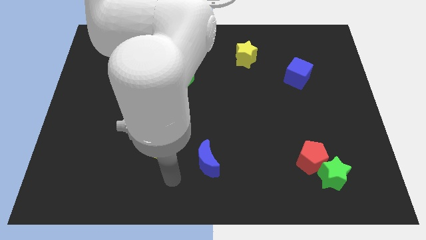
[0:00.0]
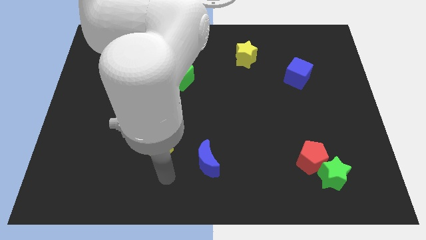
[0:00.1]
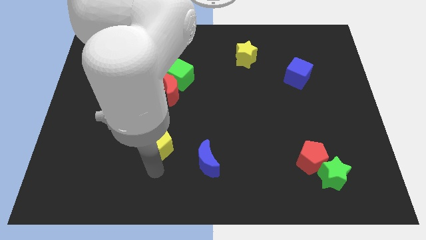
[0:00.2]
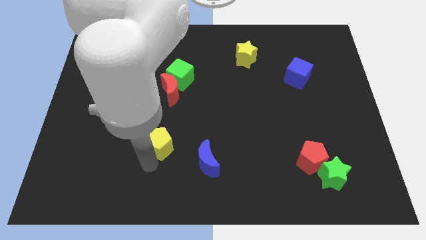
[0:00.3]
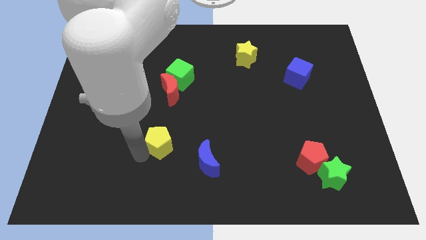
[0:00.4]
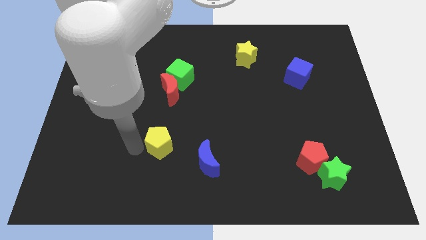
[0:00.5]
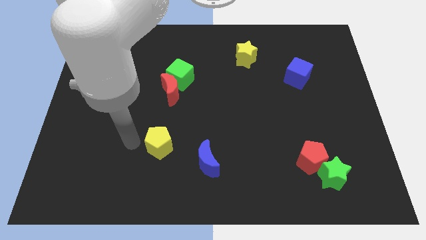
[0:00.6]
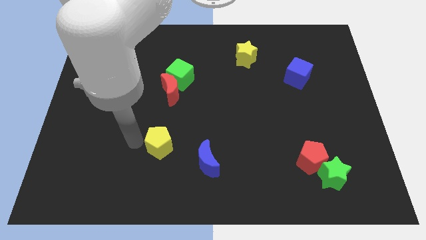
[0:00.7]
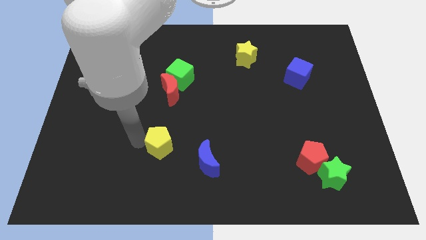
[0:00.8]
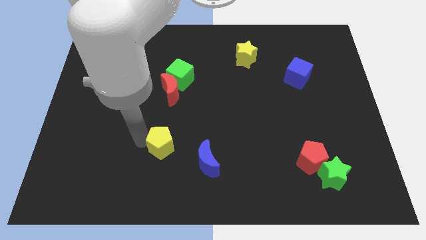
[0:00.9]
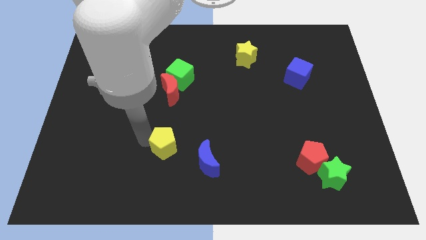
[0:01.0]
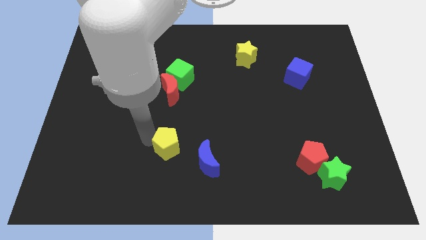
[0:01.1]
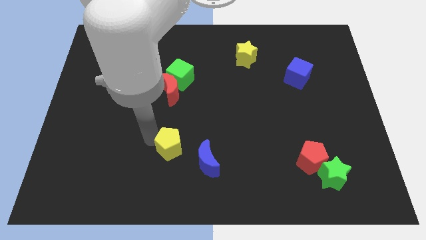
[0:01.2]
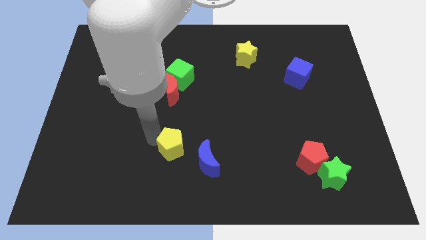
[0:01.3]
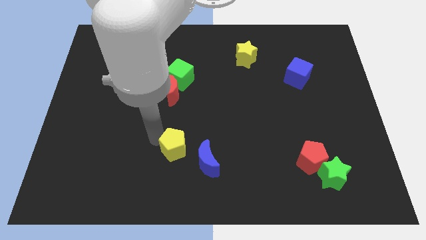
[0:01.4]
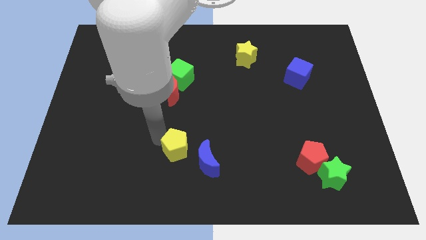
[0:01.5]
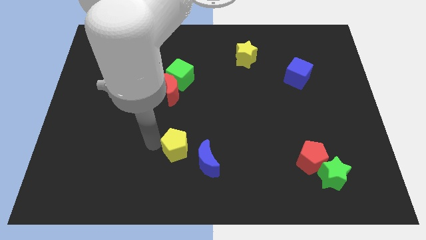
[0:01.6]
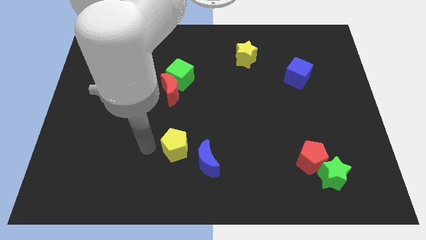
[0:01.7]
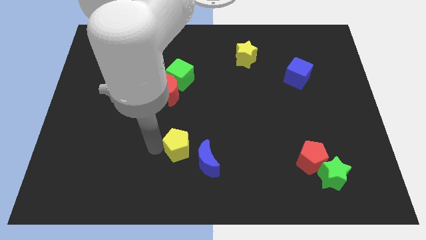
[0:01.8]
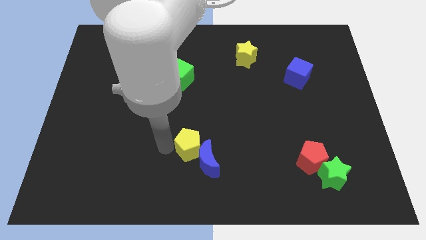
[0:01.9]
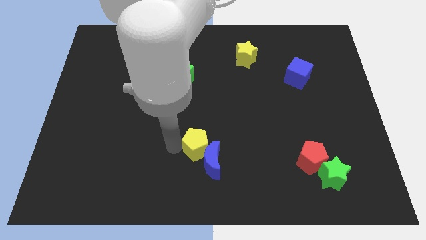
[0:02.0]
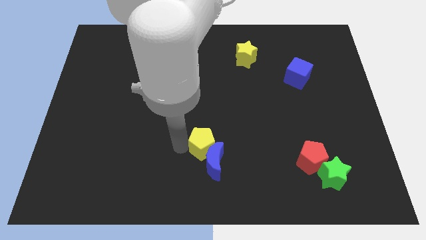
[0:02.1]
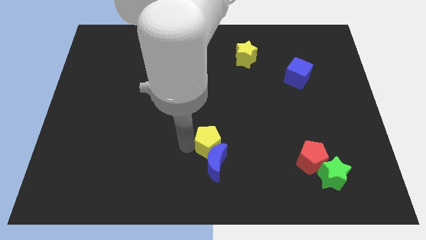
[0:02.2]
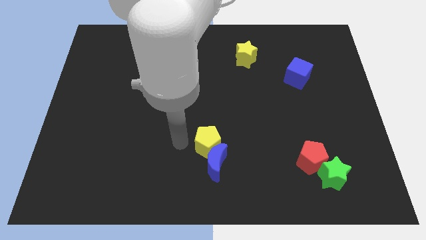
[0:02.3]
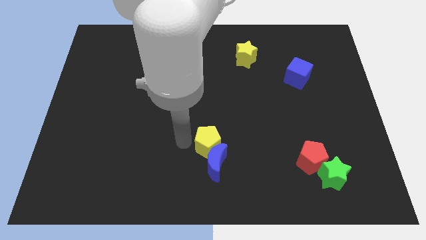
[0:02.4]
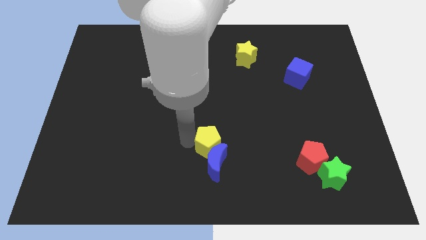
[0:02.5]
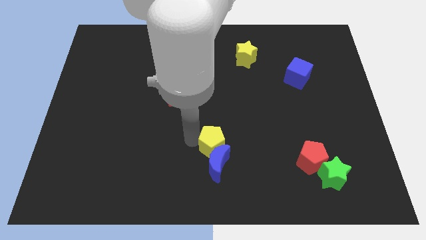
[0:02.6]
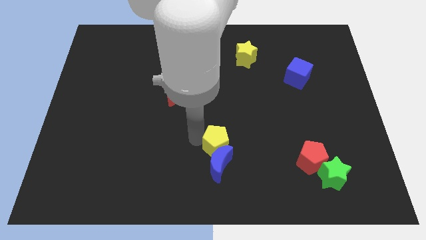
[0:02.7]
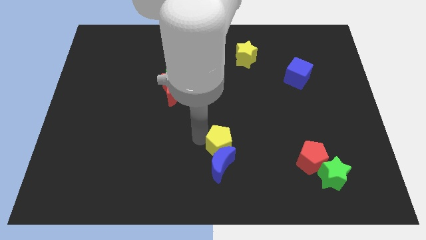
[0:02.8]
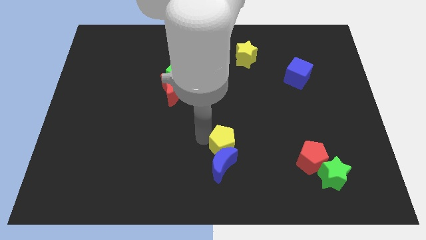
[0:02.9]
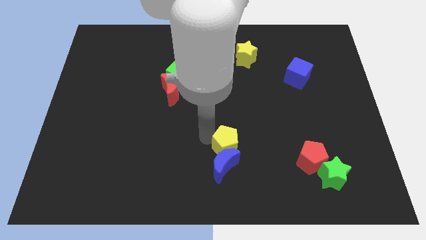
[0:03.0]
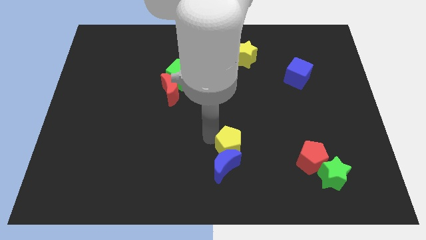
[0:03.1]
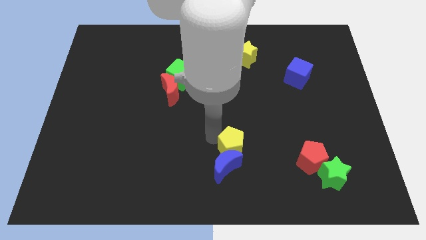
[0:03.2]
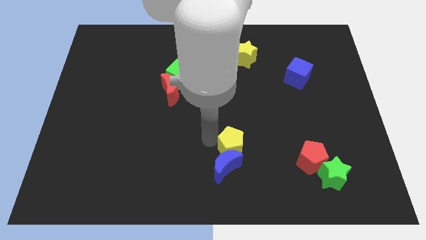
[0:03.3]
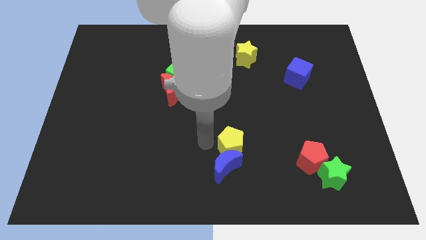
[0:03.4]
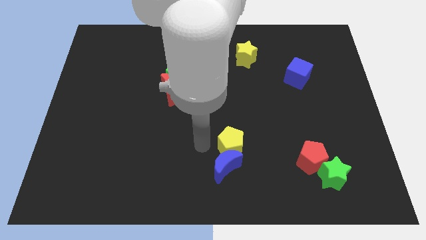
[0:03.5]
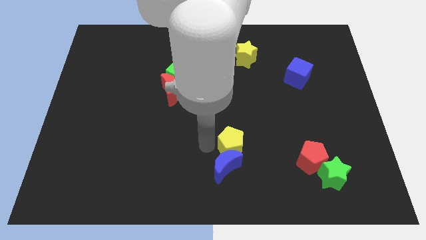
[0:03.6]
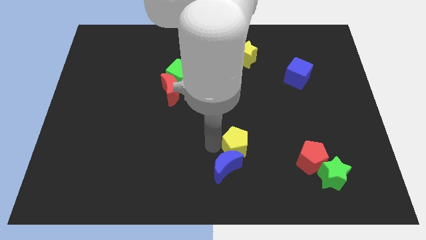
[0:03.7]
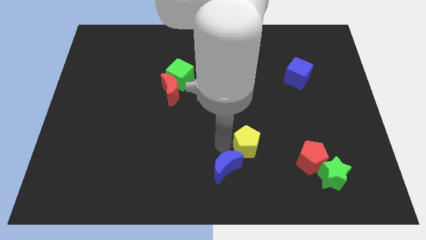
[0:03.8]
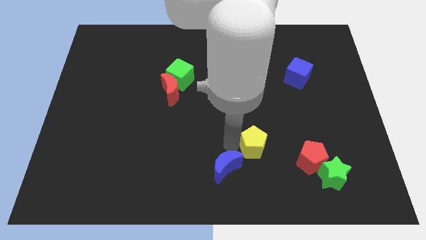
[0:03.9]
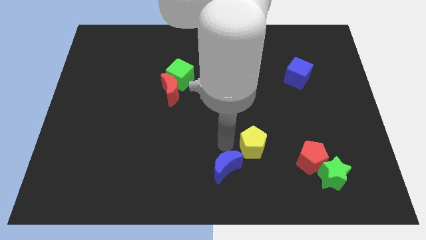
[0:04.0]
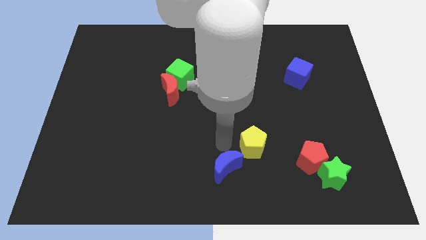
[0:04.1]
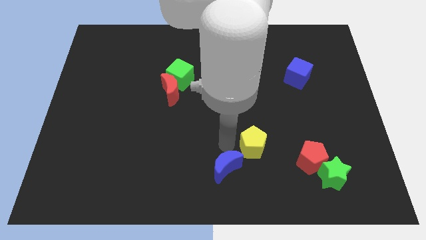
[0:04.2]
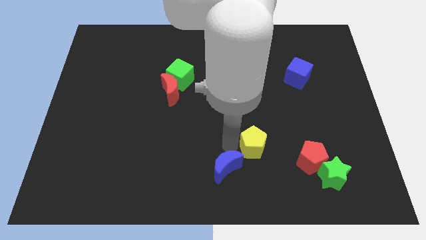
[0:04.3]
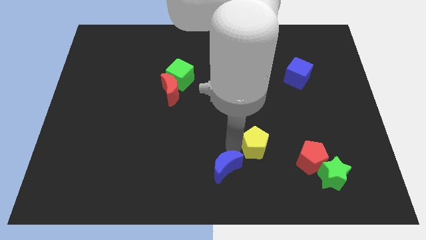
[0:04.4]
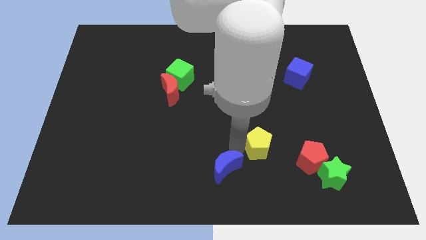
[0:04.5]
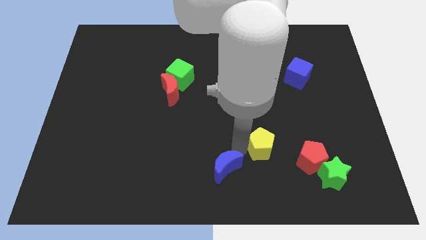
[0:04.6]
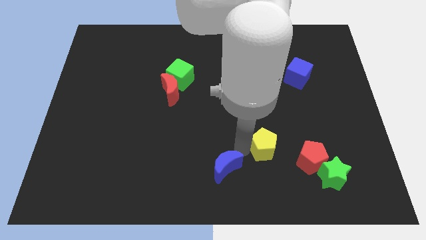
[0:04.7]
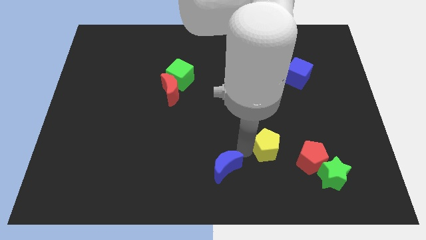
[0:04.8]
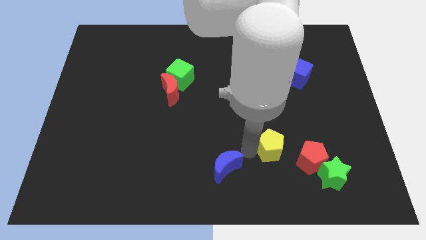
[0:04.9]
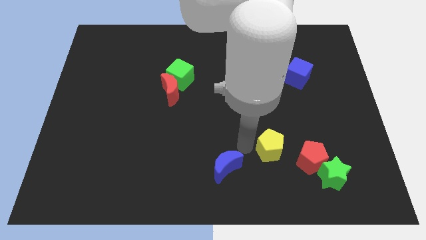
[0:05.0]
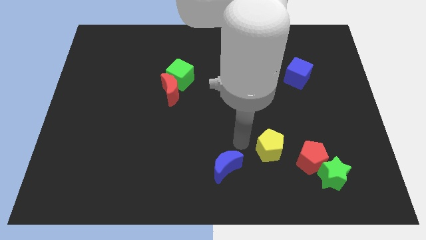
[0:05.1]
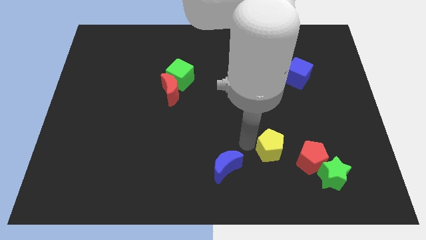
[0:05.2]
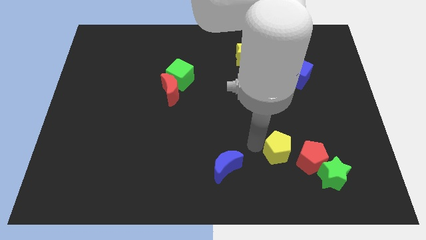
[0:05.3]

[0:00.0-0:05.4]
push the yellow pentagon to the top left side of the green star

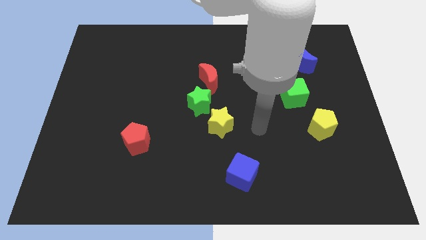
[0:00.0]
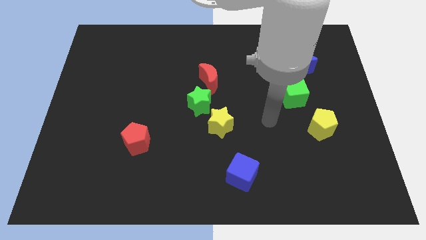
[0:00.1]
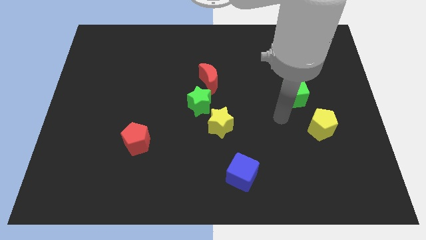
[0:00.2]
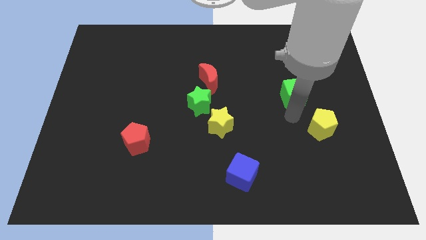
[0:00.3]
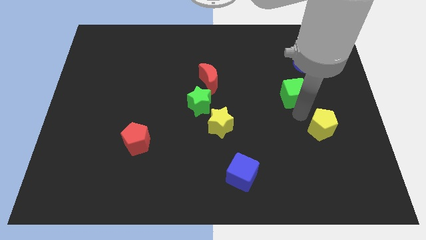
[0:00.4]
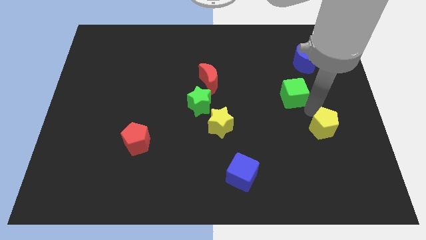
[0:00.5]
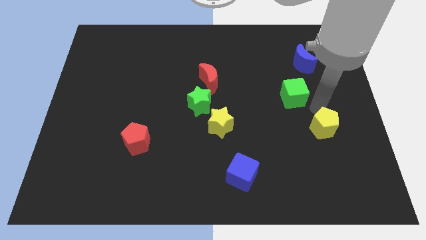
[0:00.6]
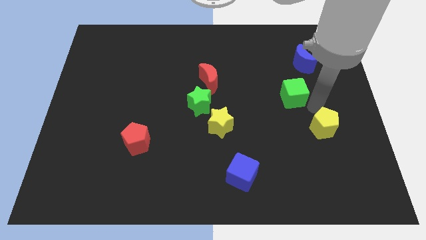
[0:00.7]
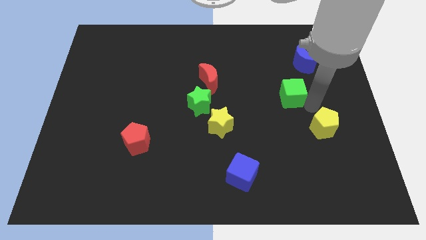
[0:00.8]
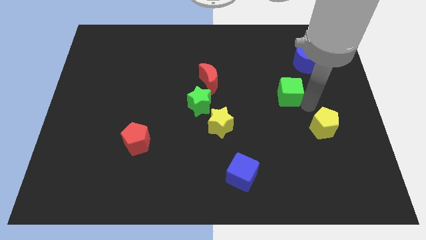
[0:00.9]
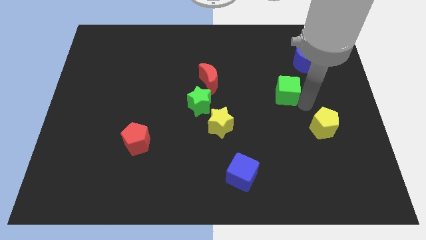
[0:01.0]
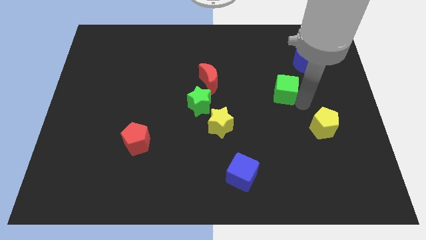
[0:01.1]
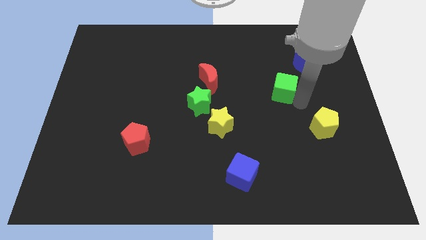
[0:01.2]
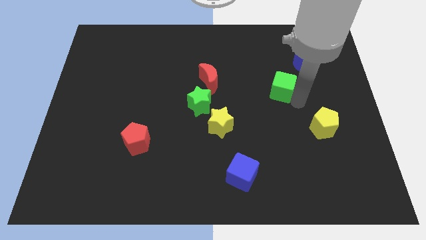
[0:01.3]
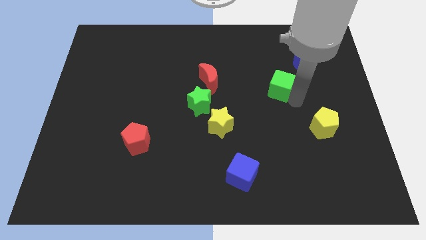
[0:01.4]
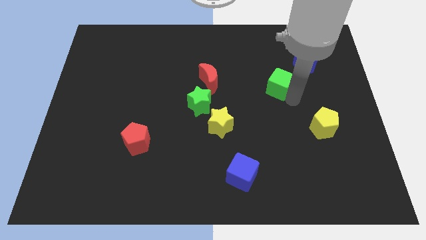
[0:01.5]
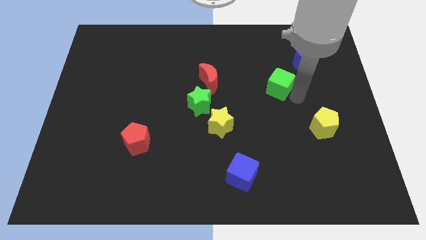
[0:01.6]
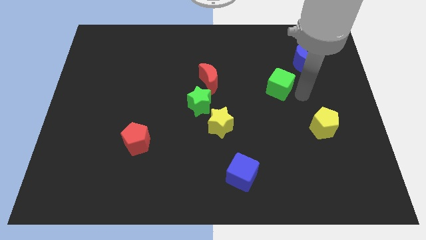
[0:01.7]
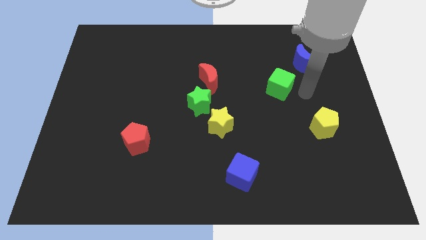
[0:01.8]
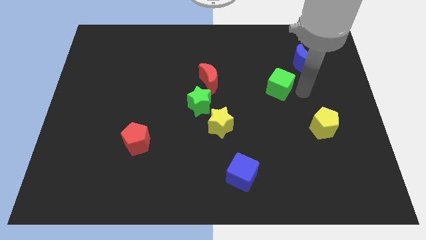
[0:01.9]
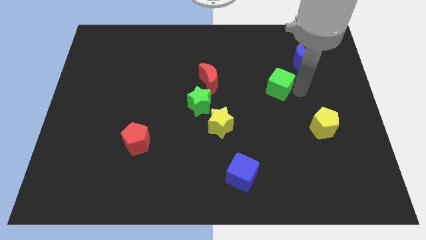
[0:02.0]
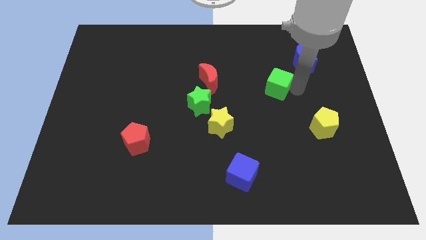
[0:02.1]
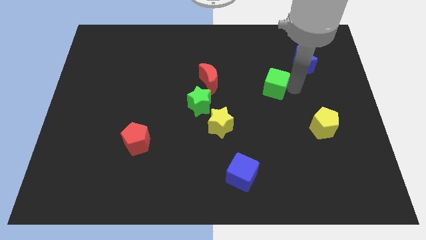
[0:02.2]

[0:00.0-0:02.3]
move the green cube to the right side of the red moon
